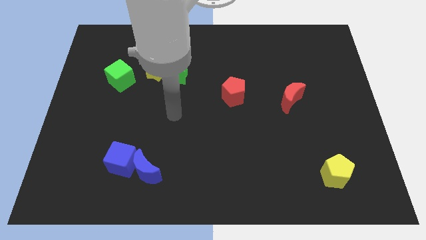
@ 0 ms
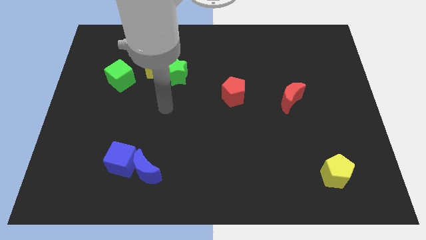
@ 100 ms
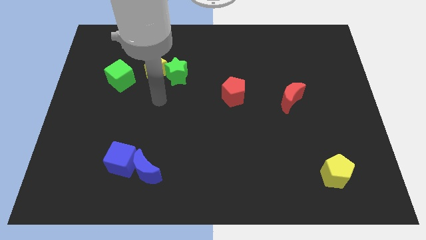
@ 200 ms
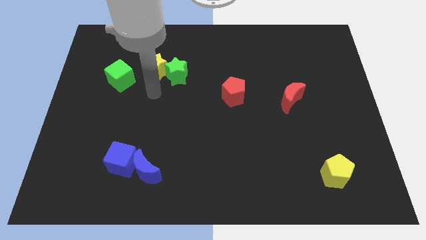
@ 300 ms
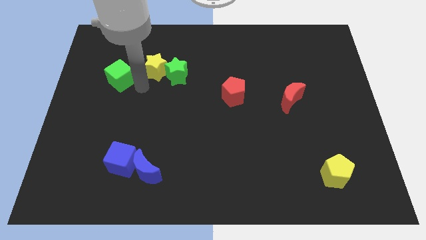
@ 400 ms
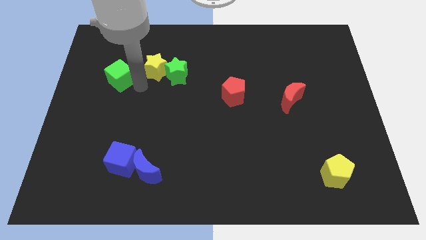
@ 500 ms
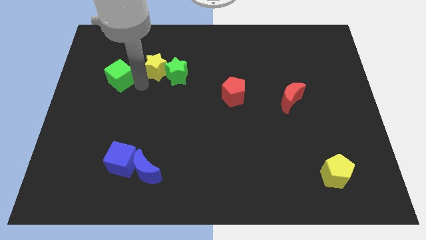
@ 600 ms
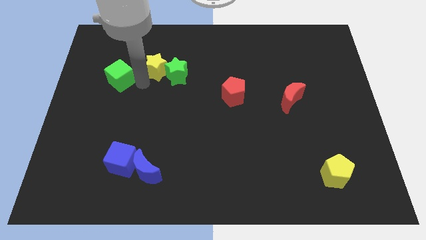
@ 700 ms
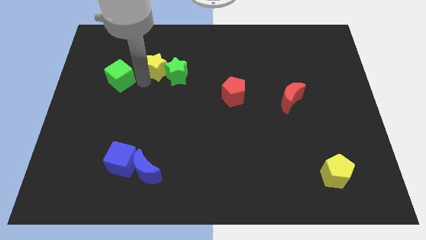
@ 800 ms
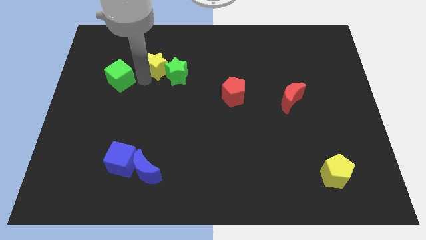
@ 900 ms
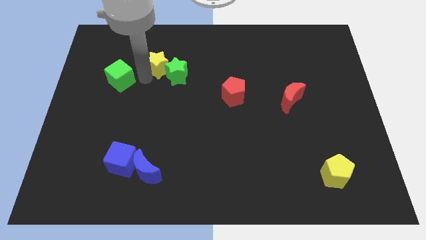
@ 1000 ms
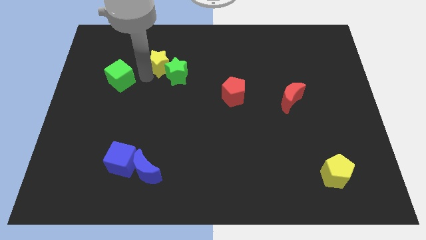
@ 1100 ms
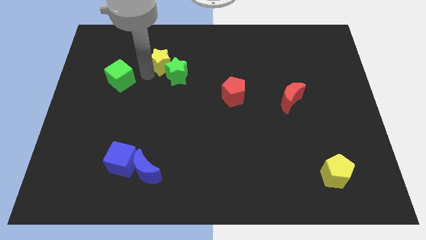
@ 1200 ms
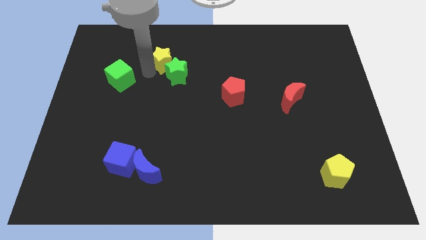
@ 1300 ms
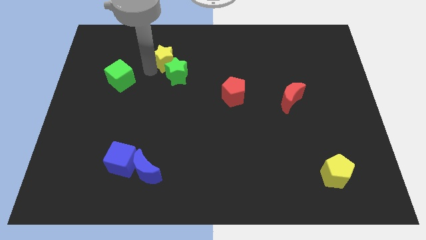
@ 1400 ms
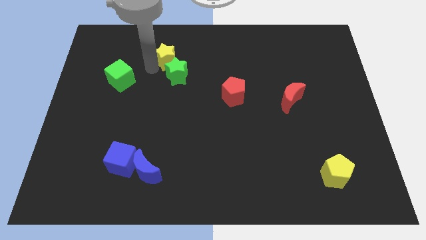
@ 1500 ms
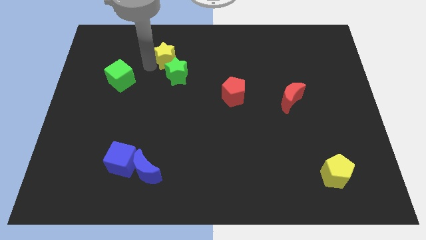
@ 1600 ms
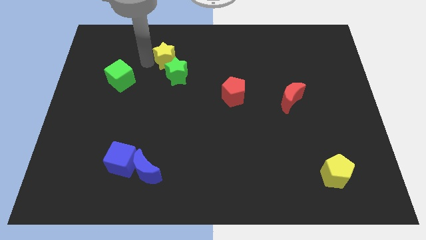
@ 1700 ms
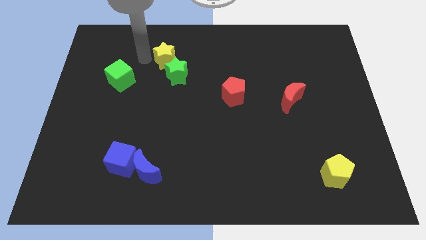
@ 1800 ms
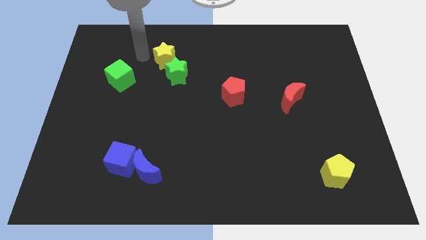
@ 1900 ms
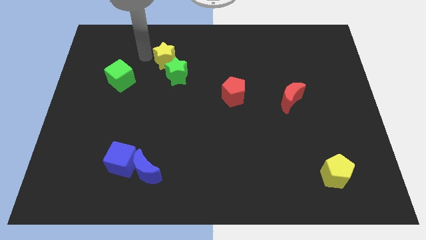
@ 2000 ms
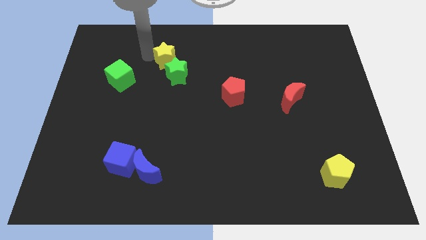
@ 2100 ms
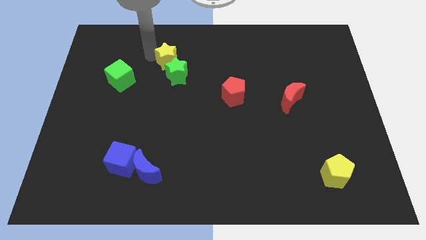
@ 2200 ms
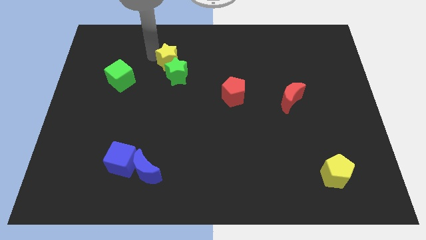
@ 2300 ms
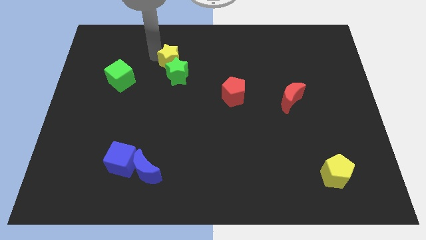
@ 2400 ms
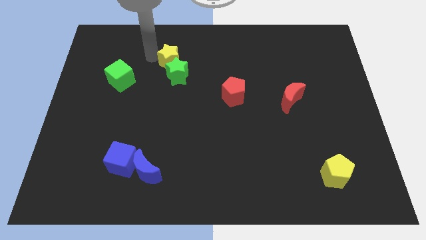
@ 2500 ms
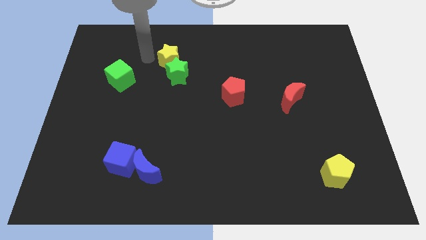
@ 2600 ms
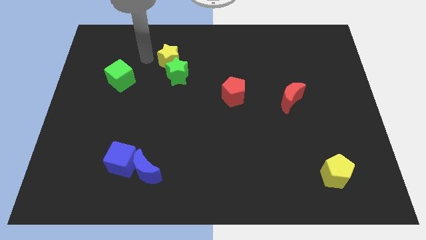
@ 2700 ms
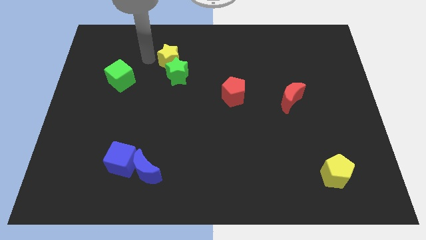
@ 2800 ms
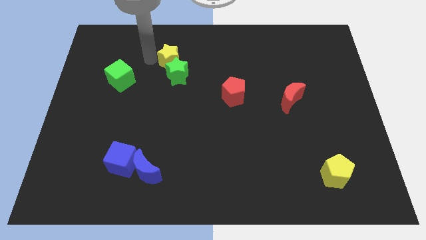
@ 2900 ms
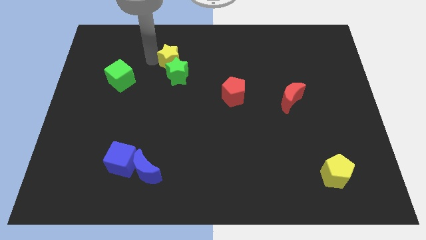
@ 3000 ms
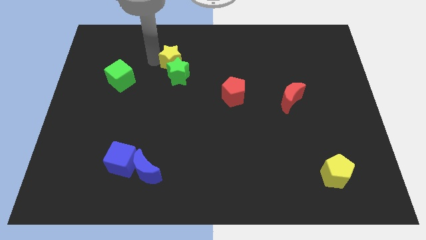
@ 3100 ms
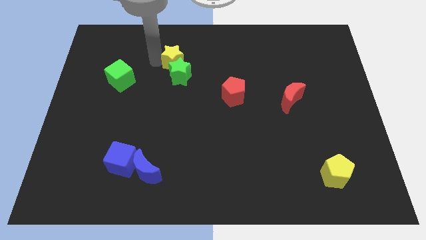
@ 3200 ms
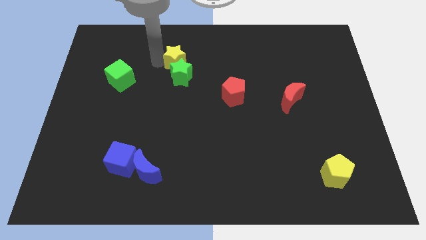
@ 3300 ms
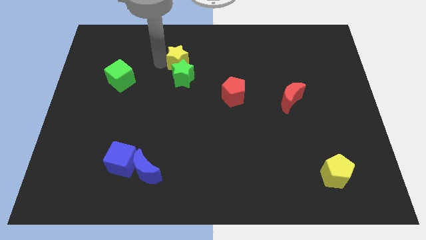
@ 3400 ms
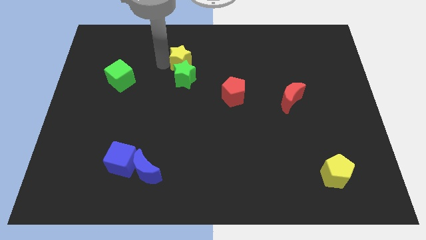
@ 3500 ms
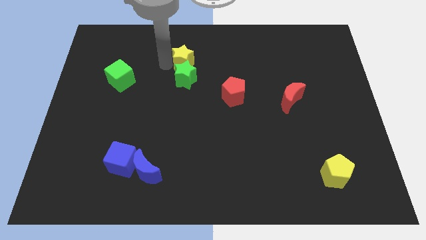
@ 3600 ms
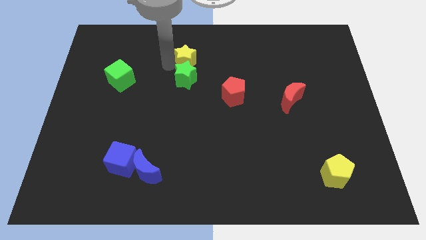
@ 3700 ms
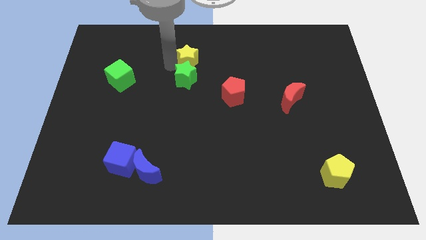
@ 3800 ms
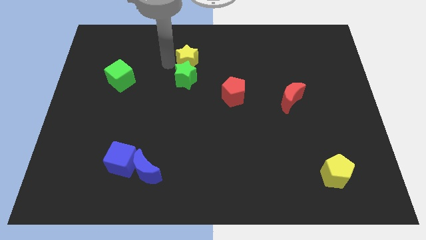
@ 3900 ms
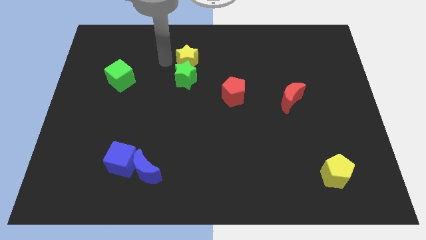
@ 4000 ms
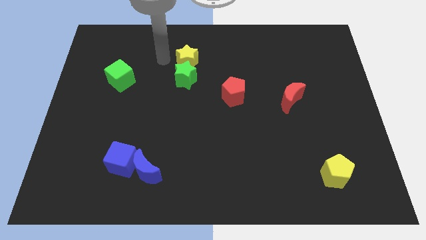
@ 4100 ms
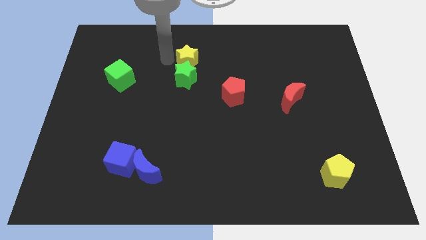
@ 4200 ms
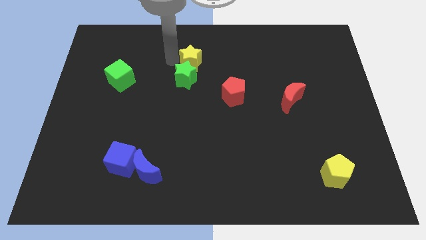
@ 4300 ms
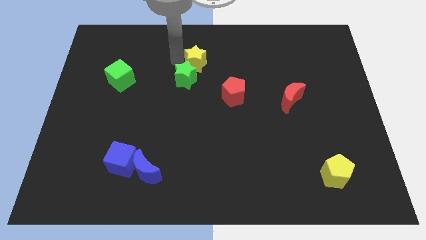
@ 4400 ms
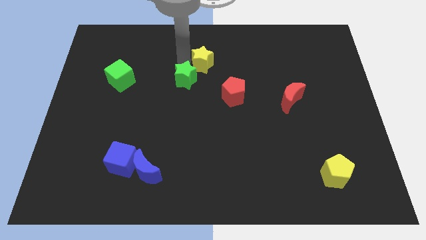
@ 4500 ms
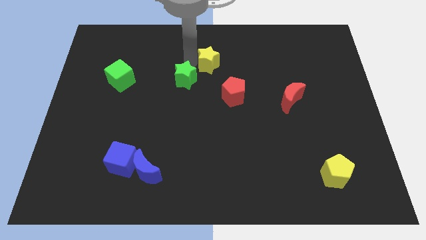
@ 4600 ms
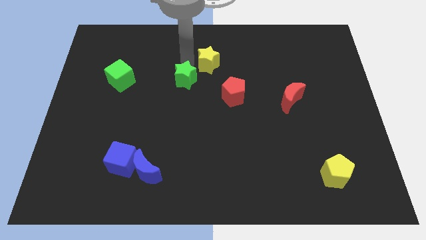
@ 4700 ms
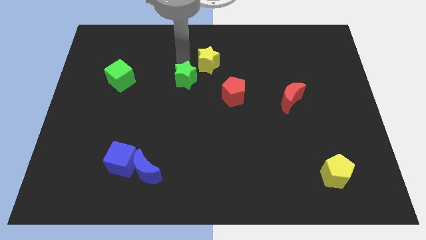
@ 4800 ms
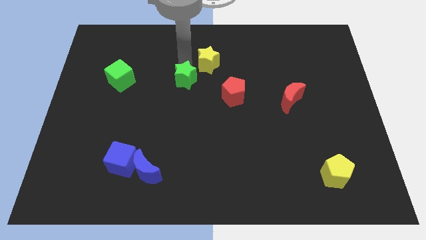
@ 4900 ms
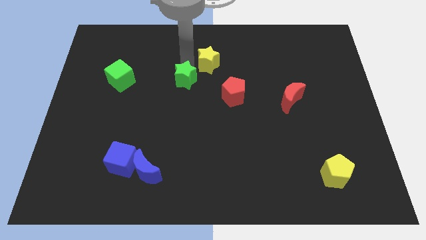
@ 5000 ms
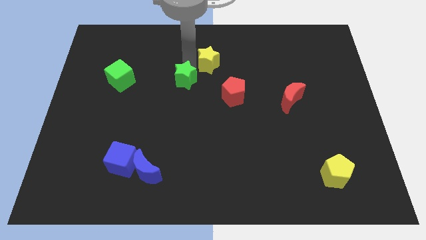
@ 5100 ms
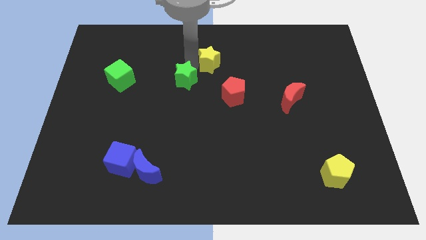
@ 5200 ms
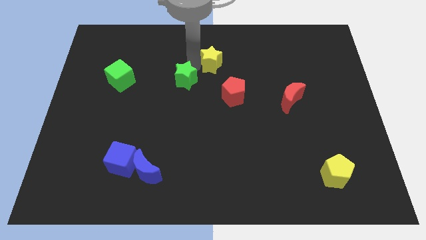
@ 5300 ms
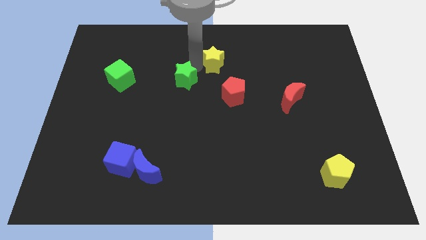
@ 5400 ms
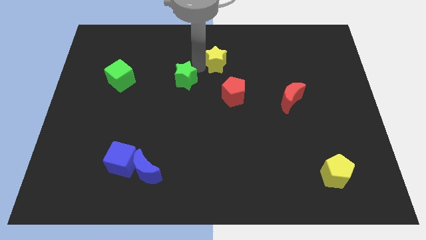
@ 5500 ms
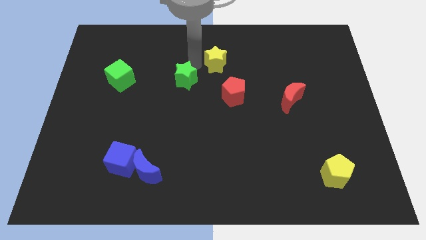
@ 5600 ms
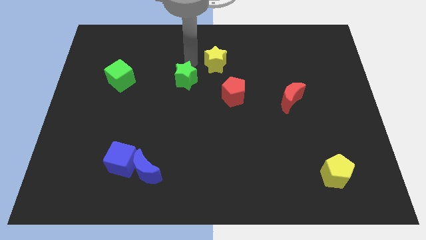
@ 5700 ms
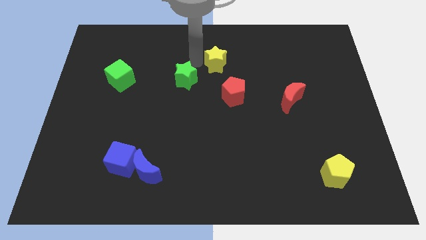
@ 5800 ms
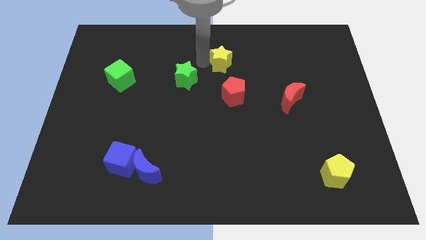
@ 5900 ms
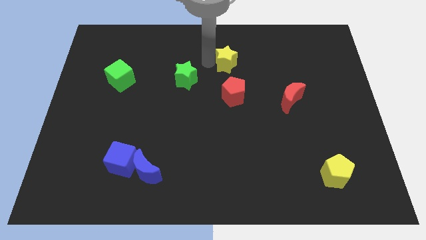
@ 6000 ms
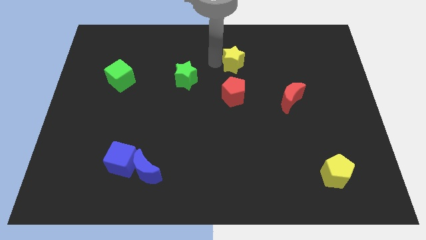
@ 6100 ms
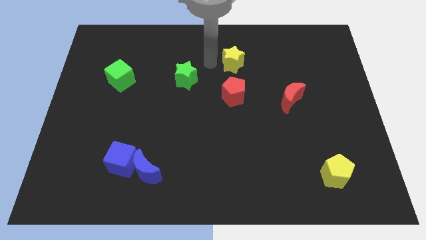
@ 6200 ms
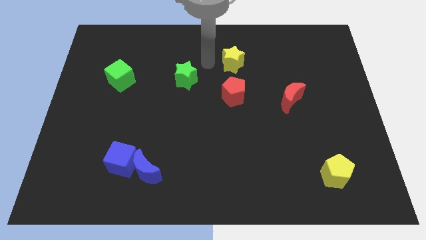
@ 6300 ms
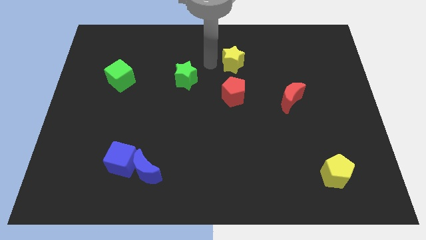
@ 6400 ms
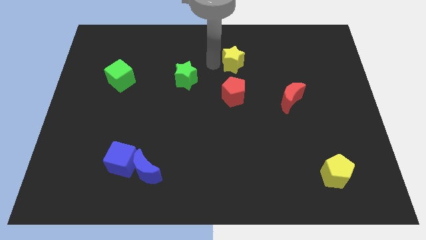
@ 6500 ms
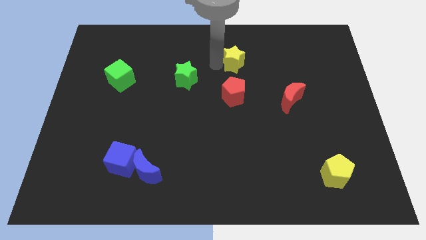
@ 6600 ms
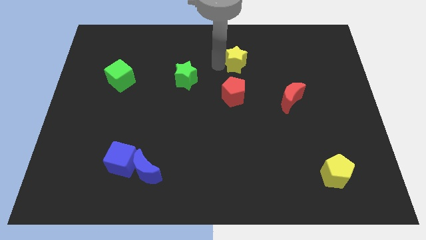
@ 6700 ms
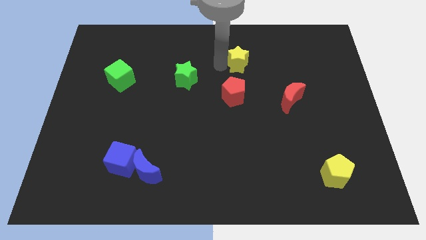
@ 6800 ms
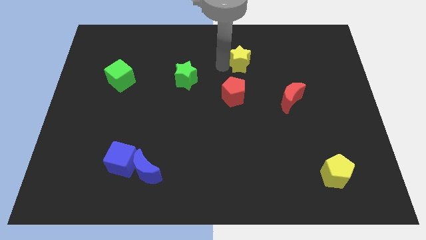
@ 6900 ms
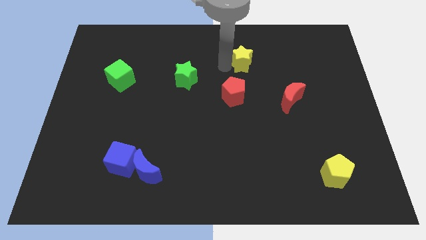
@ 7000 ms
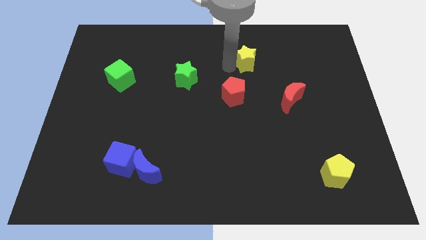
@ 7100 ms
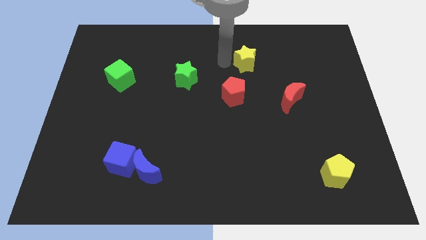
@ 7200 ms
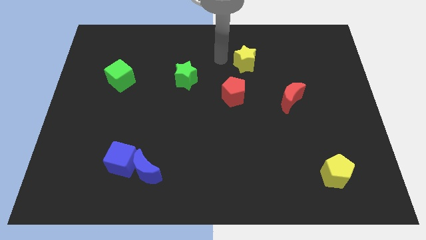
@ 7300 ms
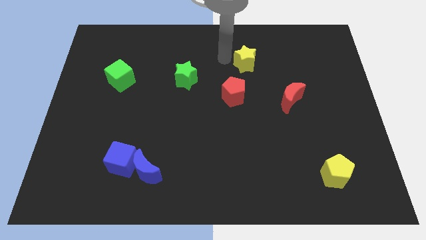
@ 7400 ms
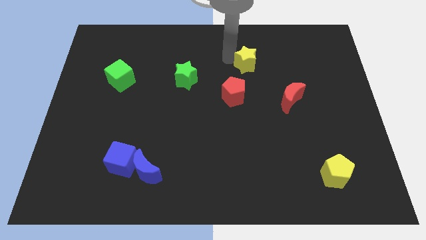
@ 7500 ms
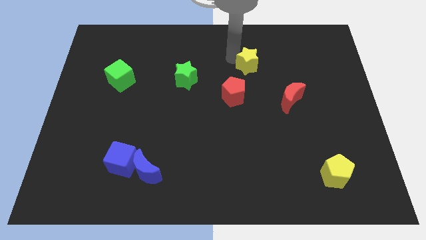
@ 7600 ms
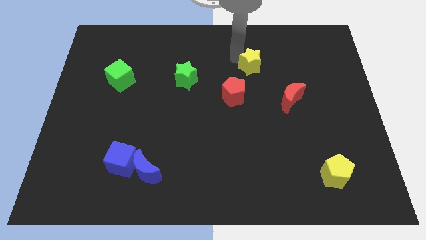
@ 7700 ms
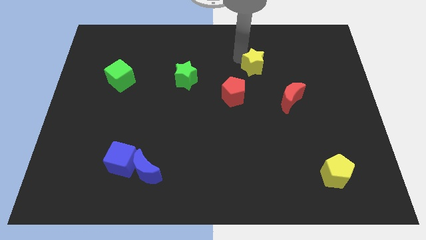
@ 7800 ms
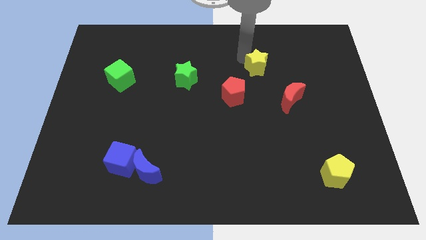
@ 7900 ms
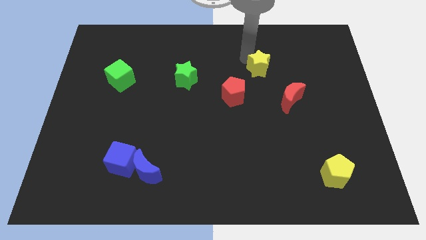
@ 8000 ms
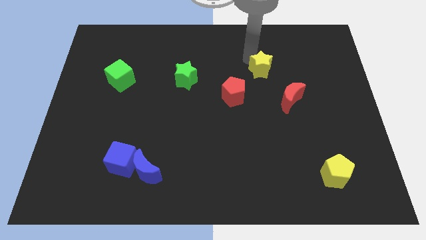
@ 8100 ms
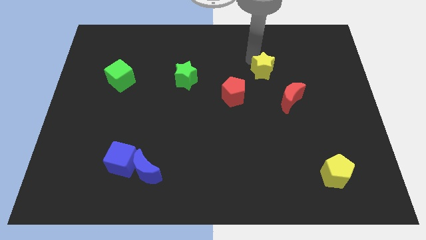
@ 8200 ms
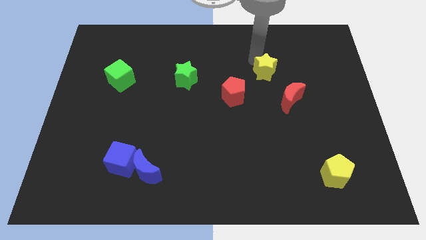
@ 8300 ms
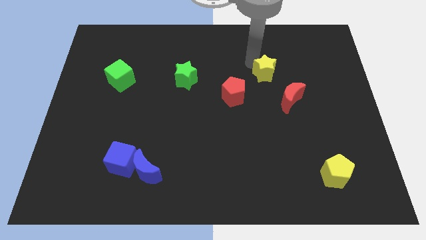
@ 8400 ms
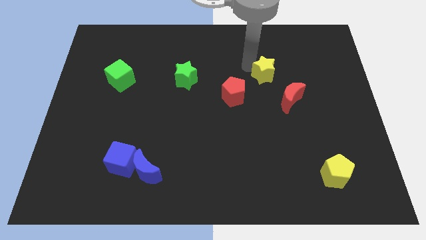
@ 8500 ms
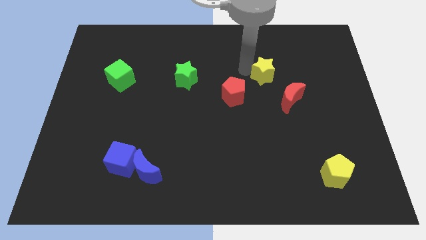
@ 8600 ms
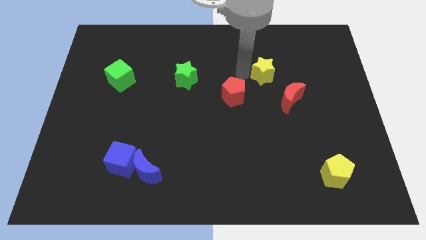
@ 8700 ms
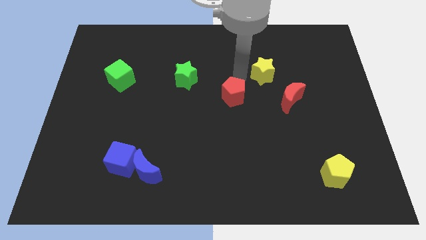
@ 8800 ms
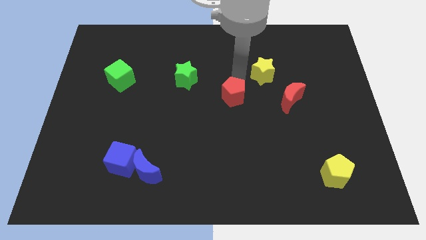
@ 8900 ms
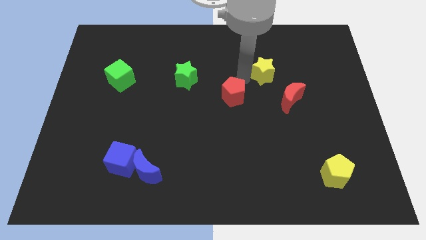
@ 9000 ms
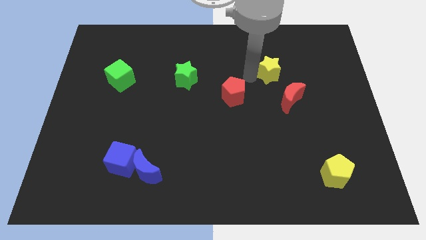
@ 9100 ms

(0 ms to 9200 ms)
slide the yellow star above the red moon
